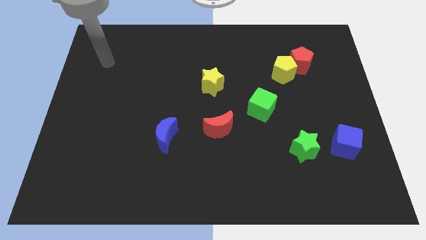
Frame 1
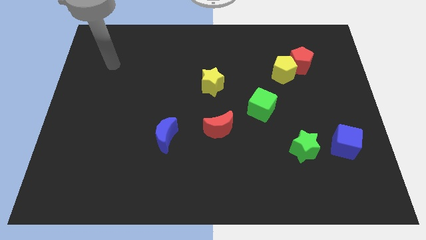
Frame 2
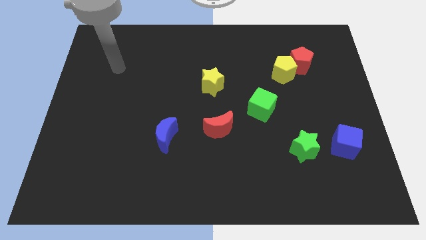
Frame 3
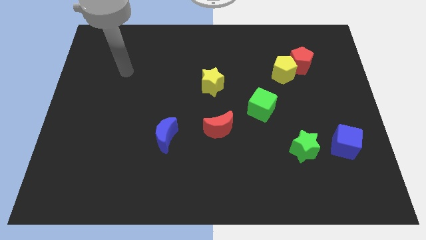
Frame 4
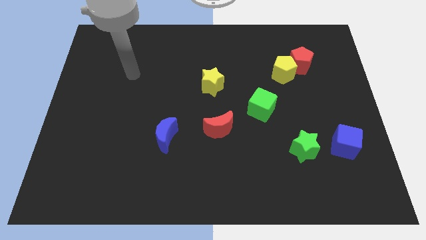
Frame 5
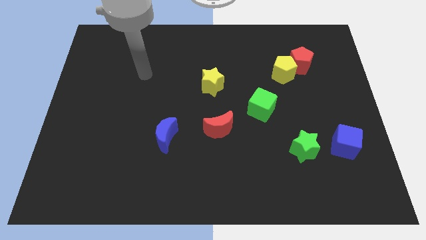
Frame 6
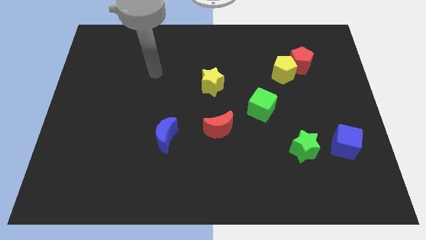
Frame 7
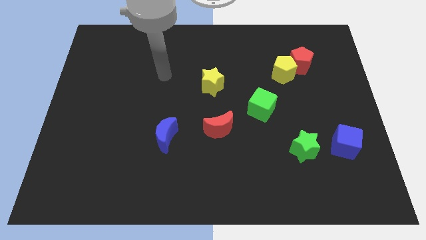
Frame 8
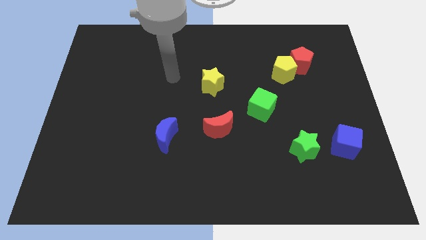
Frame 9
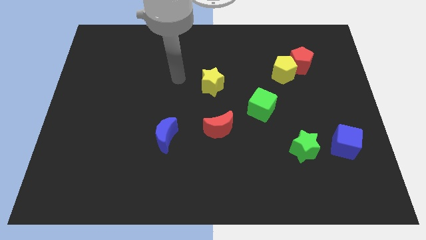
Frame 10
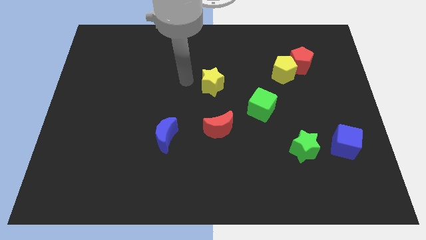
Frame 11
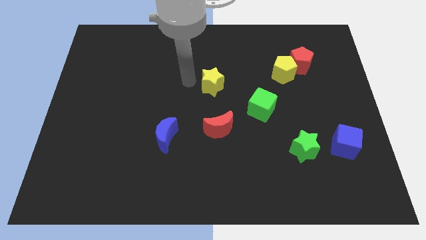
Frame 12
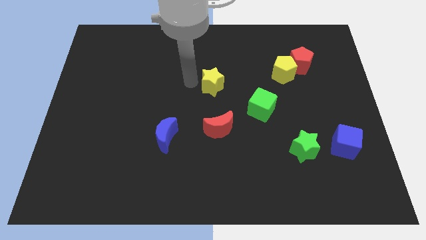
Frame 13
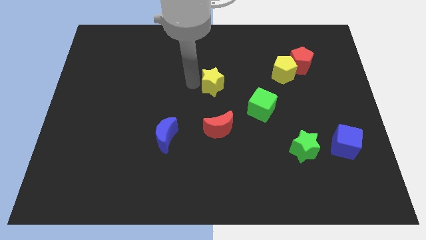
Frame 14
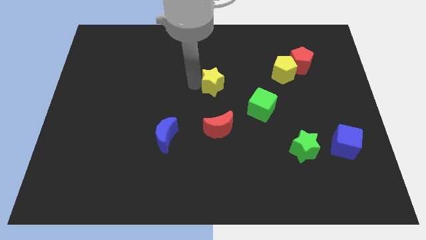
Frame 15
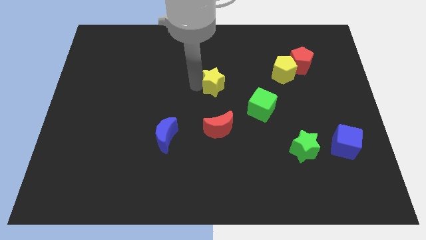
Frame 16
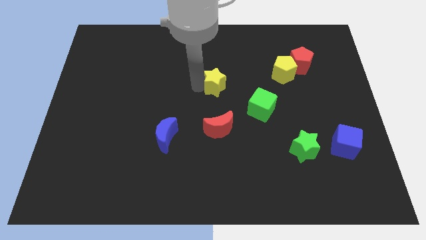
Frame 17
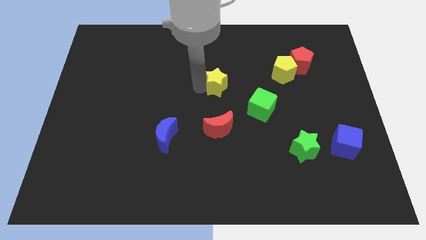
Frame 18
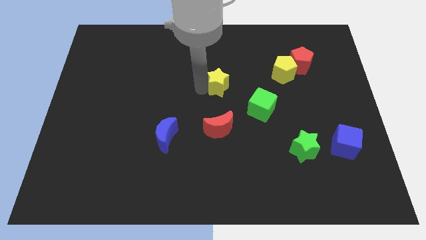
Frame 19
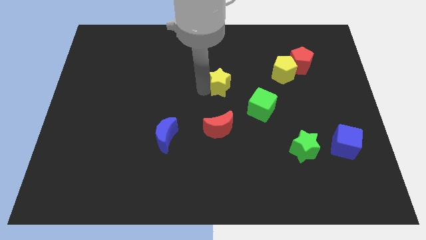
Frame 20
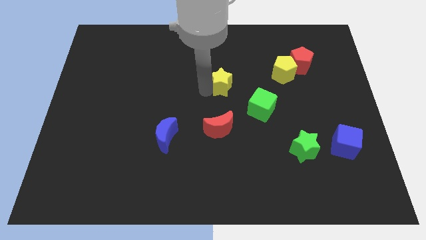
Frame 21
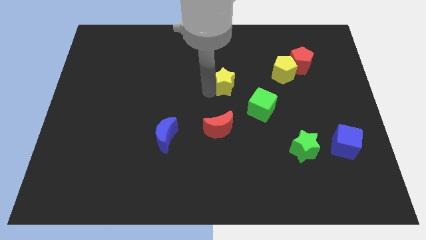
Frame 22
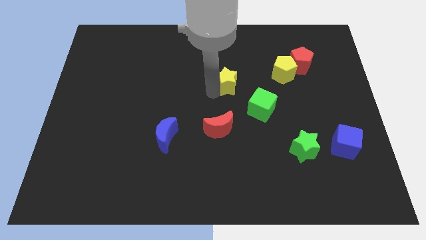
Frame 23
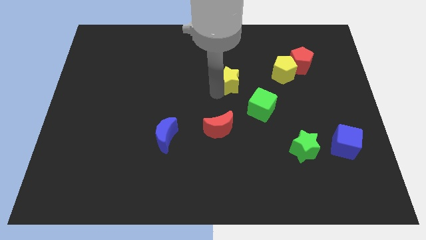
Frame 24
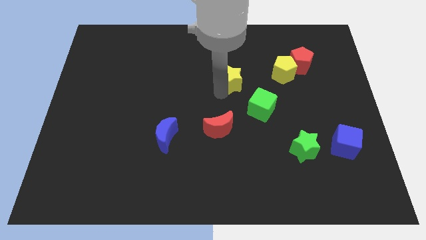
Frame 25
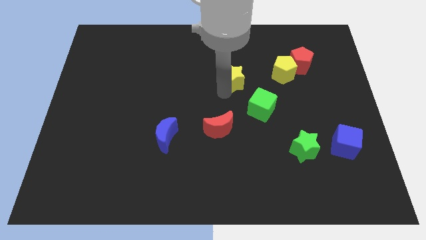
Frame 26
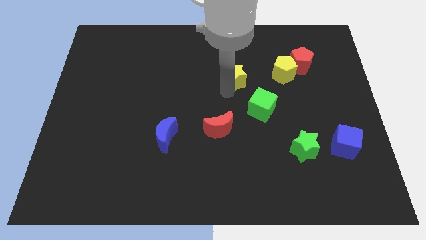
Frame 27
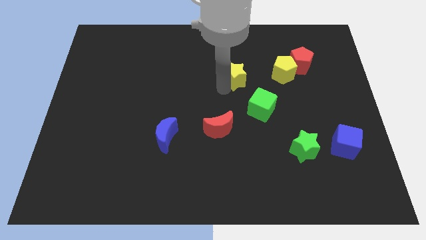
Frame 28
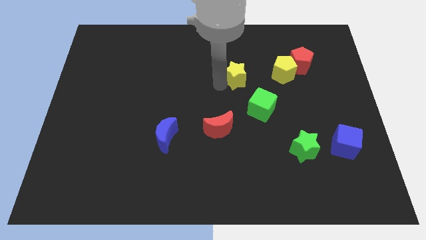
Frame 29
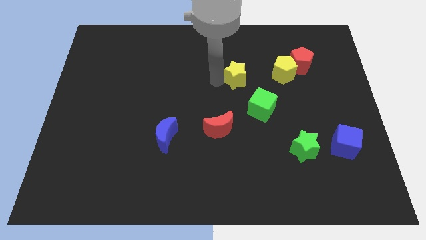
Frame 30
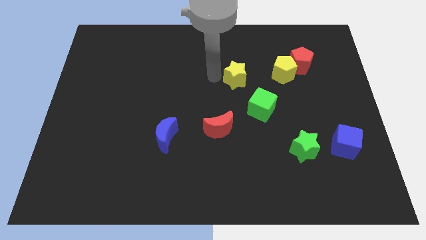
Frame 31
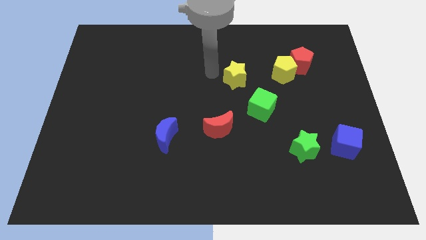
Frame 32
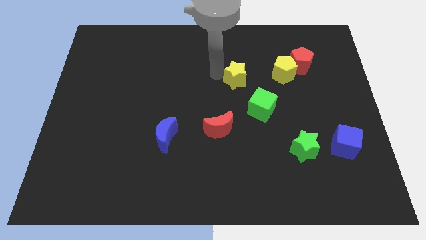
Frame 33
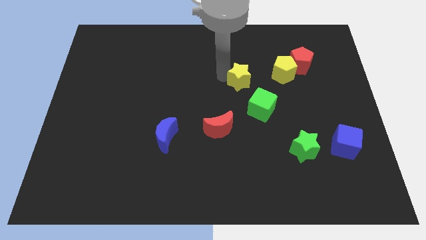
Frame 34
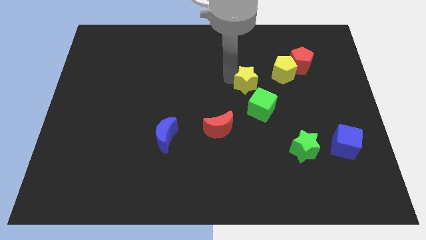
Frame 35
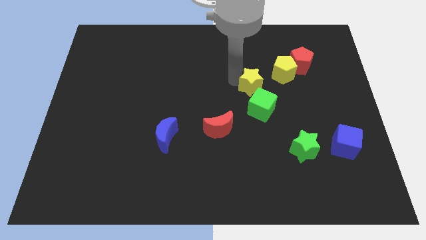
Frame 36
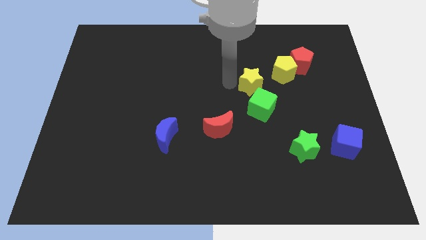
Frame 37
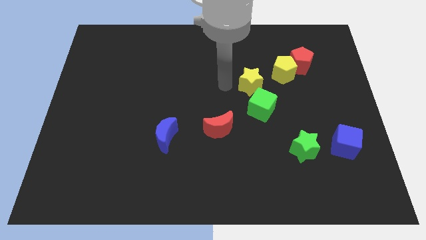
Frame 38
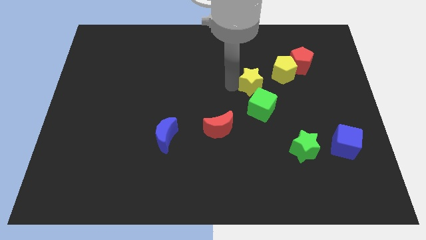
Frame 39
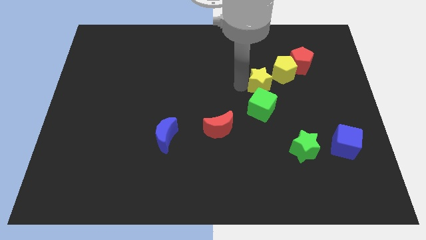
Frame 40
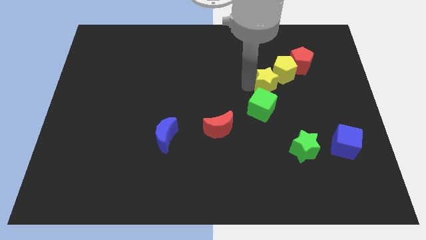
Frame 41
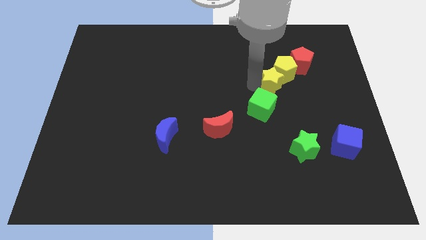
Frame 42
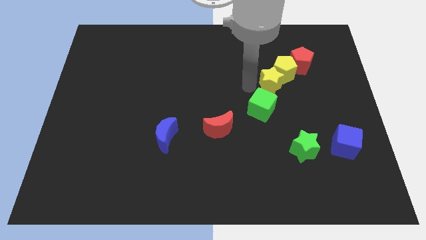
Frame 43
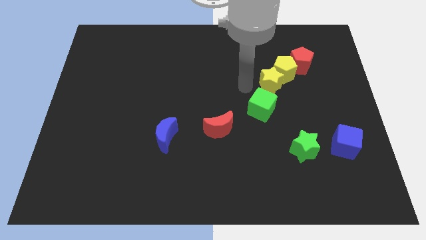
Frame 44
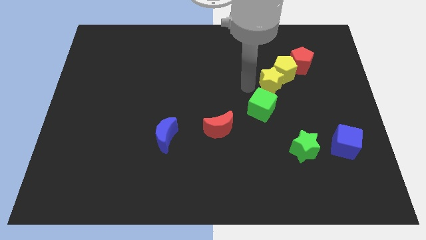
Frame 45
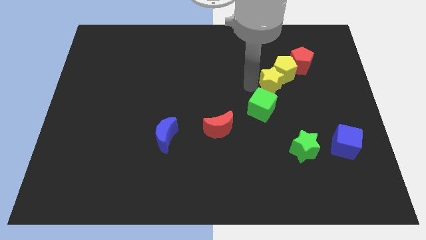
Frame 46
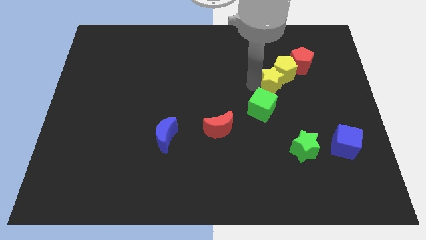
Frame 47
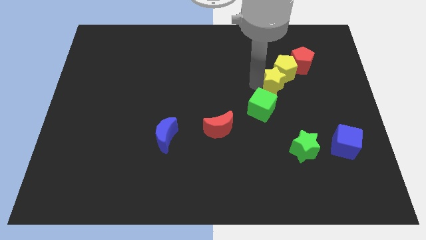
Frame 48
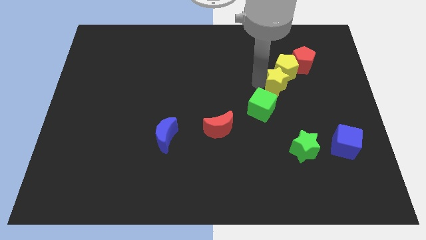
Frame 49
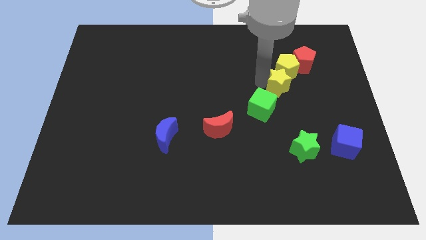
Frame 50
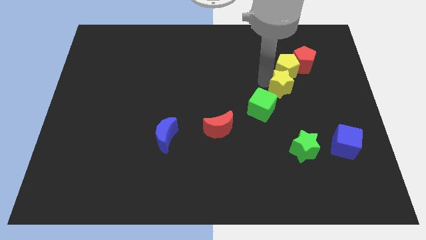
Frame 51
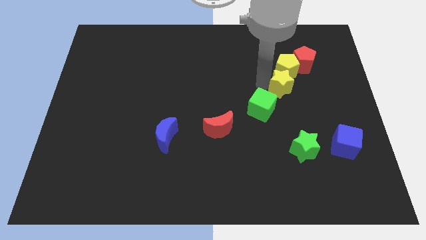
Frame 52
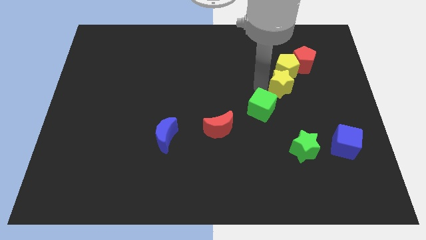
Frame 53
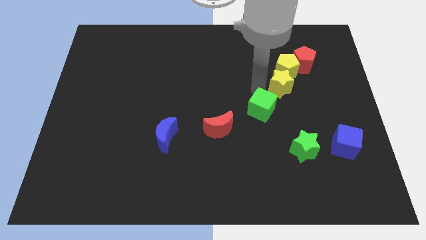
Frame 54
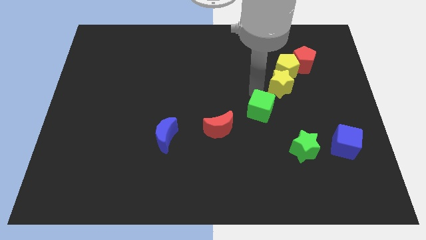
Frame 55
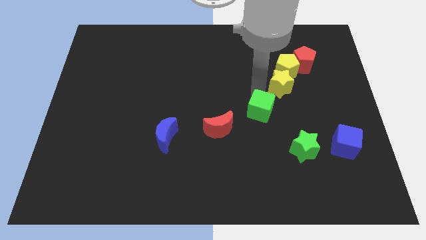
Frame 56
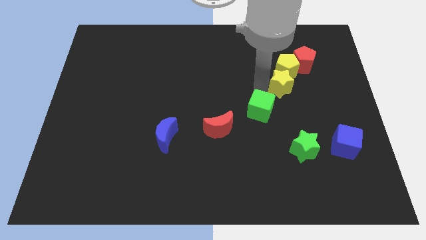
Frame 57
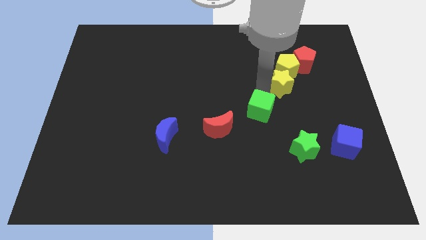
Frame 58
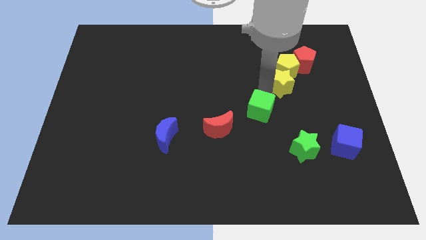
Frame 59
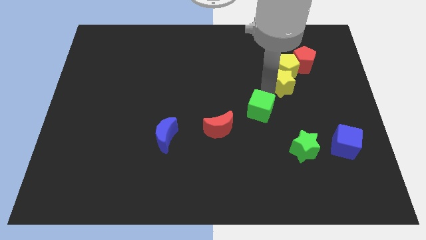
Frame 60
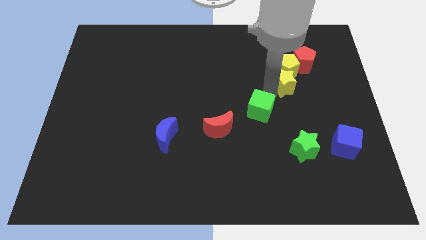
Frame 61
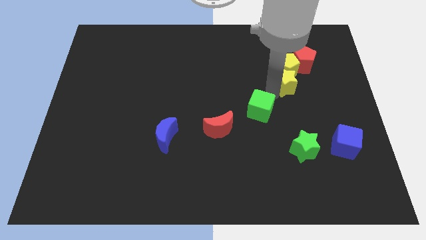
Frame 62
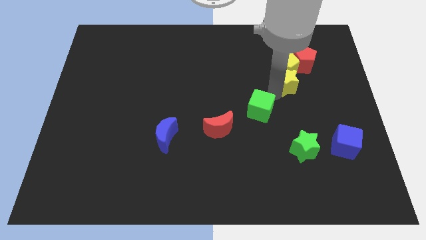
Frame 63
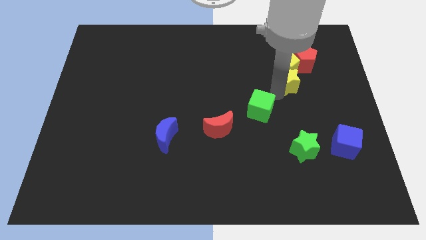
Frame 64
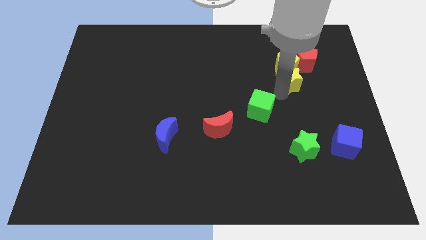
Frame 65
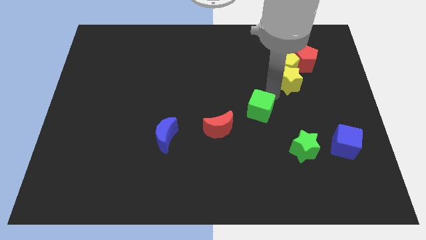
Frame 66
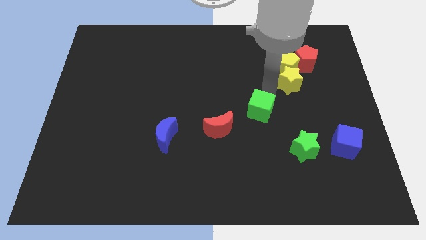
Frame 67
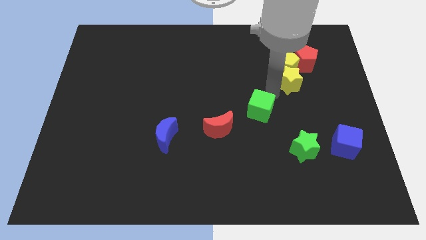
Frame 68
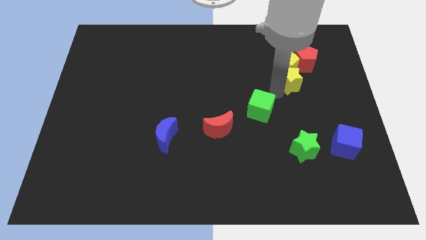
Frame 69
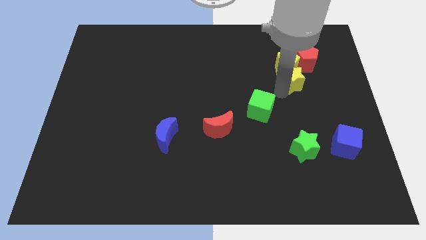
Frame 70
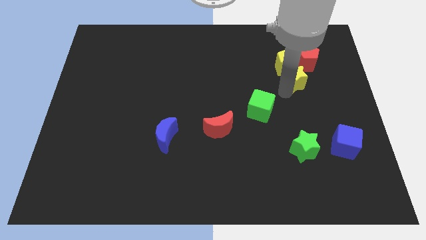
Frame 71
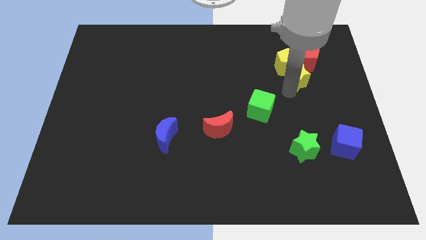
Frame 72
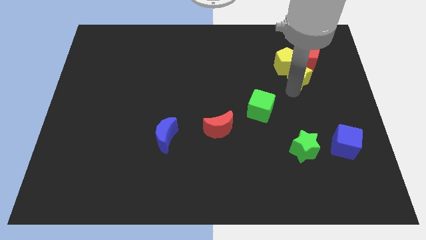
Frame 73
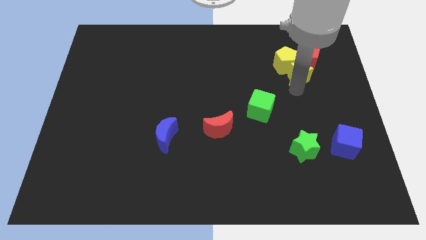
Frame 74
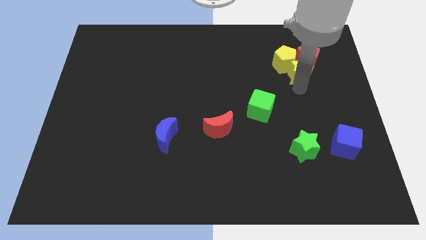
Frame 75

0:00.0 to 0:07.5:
push the yellow star to the right of the yellow pentagon
